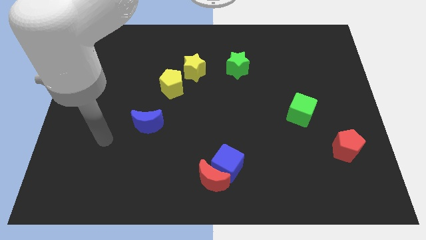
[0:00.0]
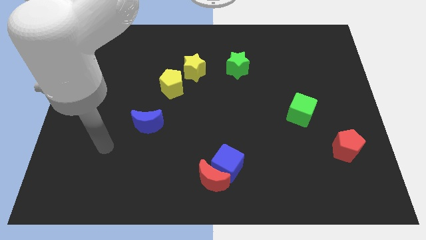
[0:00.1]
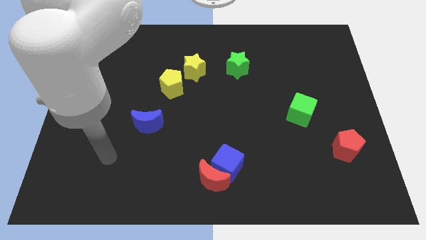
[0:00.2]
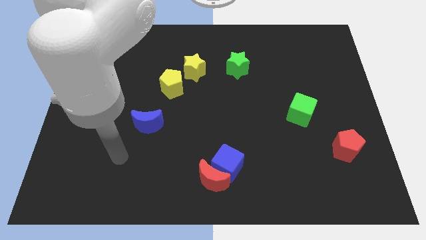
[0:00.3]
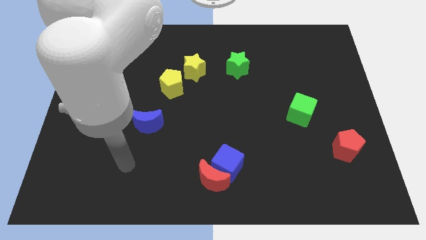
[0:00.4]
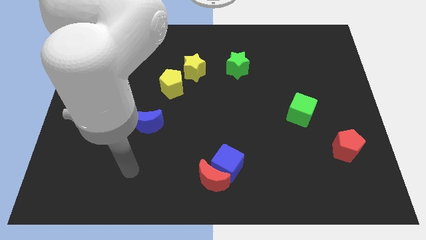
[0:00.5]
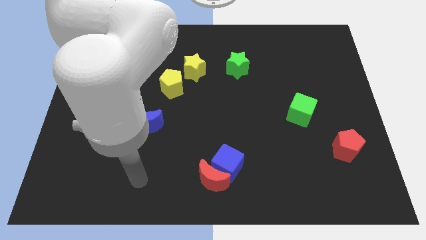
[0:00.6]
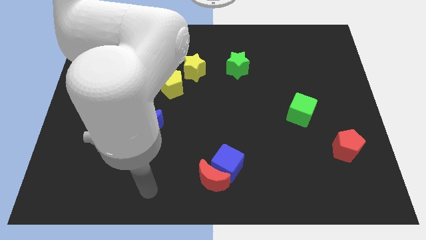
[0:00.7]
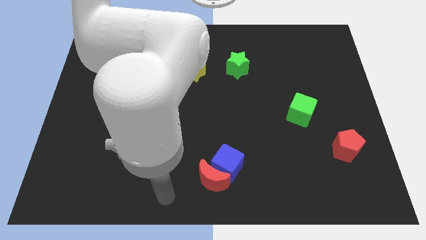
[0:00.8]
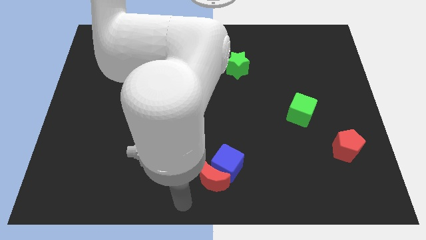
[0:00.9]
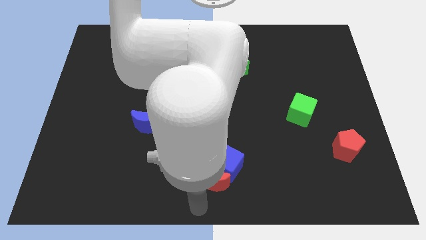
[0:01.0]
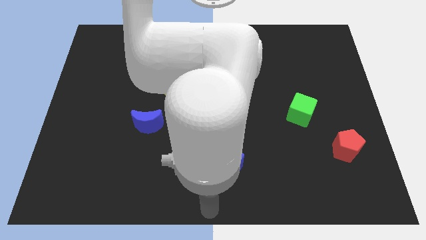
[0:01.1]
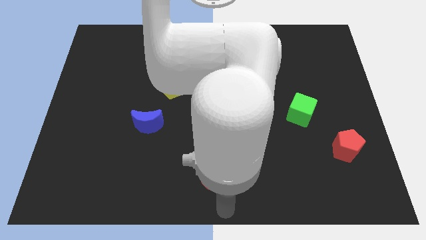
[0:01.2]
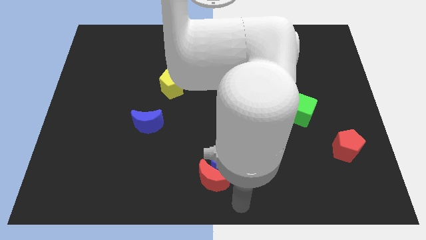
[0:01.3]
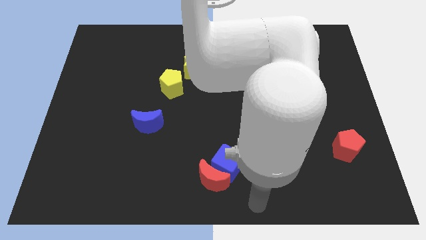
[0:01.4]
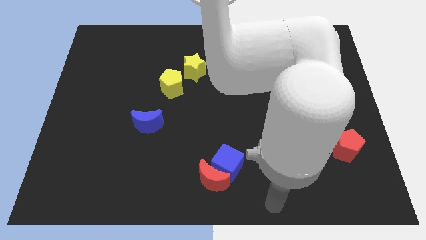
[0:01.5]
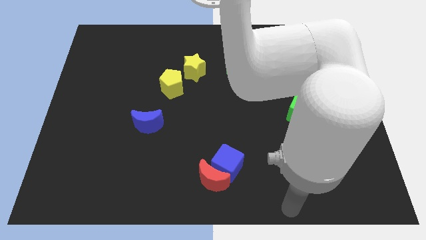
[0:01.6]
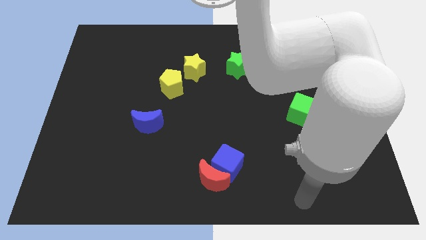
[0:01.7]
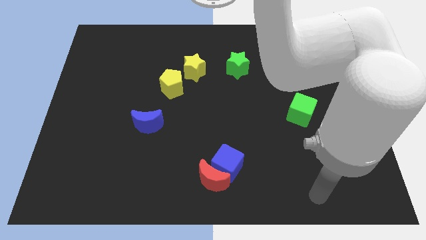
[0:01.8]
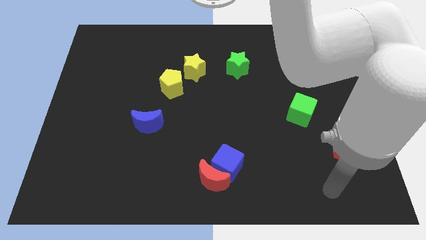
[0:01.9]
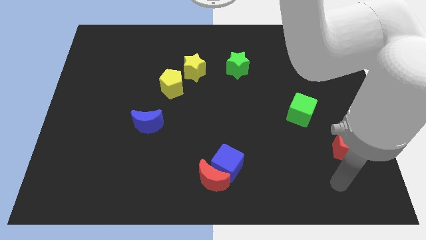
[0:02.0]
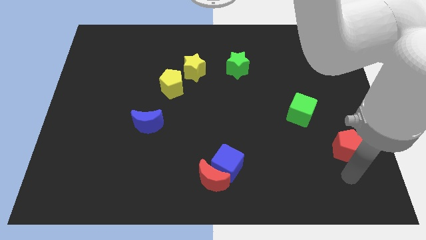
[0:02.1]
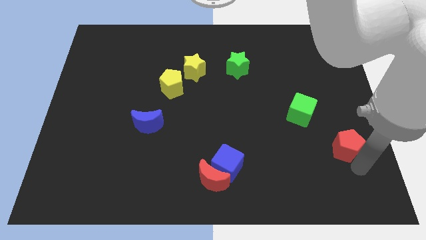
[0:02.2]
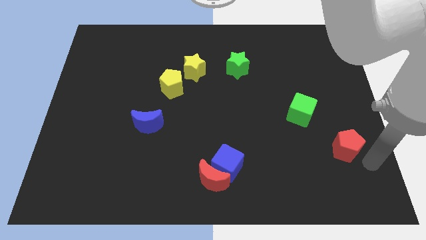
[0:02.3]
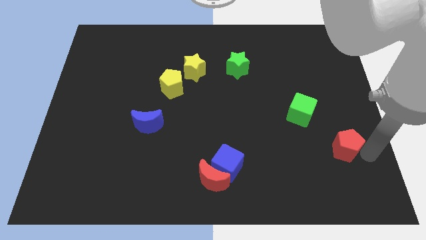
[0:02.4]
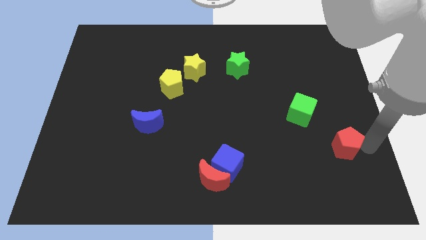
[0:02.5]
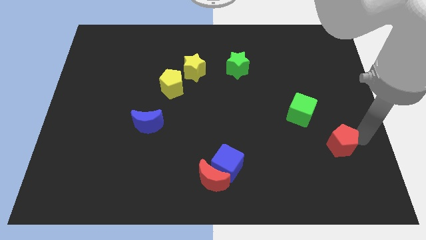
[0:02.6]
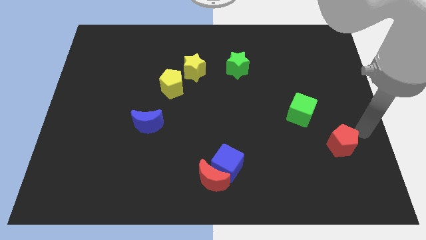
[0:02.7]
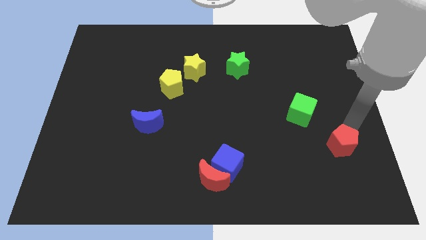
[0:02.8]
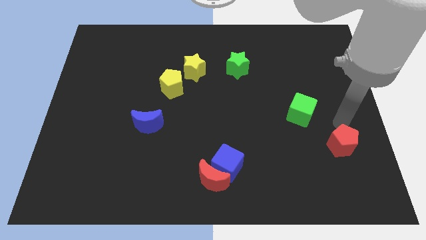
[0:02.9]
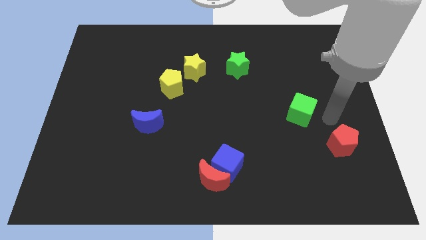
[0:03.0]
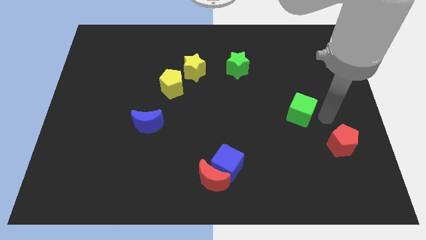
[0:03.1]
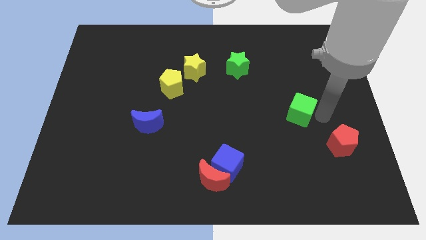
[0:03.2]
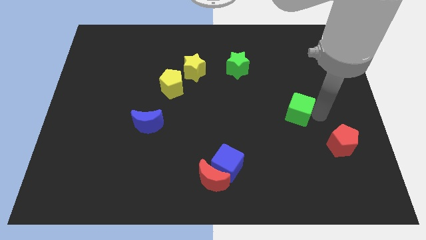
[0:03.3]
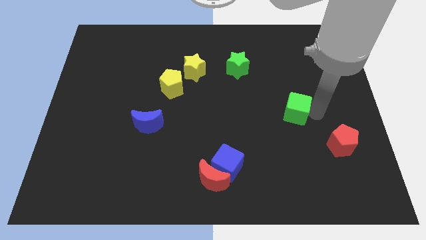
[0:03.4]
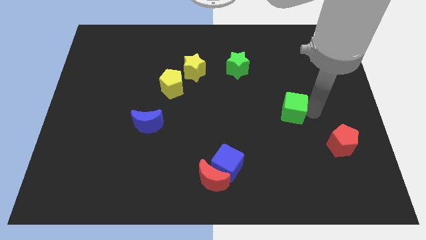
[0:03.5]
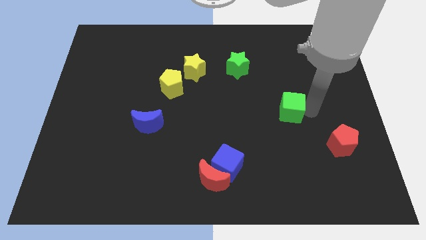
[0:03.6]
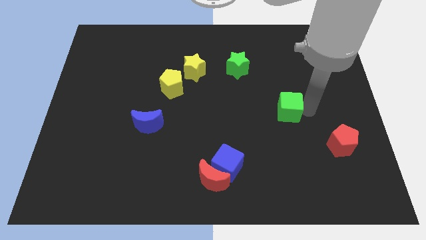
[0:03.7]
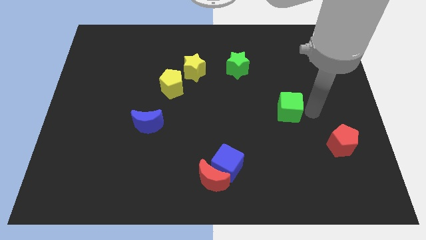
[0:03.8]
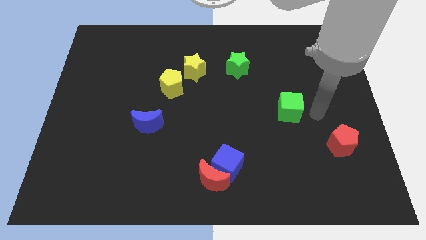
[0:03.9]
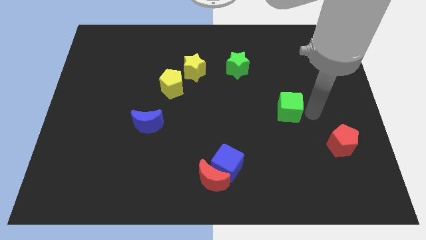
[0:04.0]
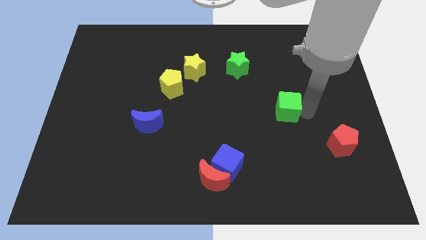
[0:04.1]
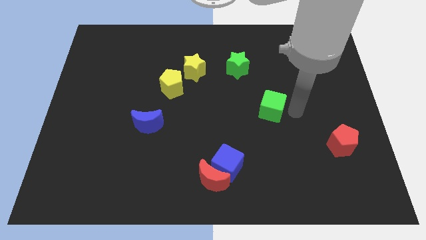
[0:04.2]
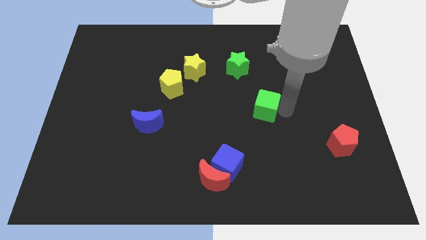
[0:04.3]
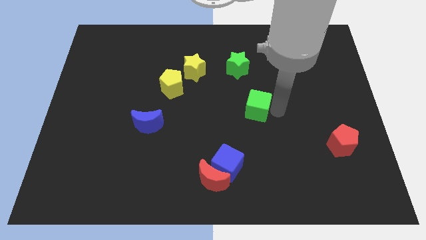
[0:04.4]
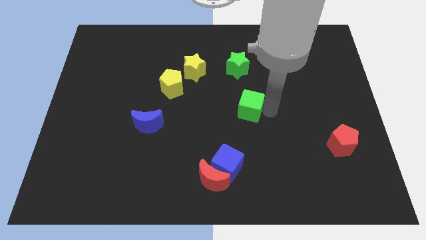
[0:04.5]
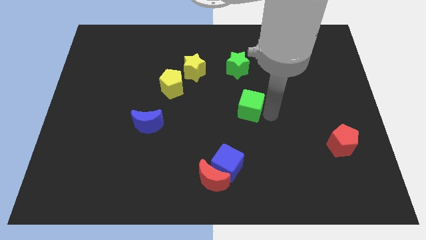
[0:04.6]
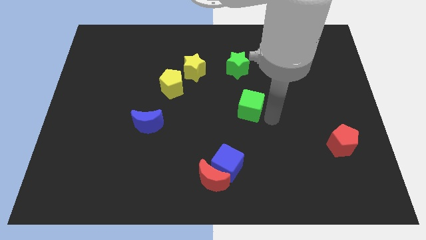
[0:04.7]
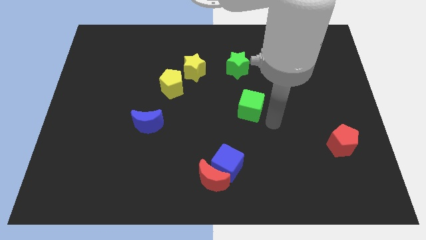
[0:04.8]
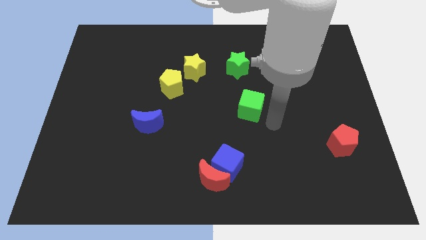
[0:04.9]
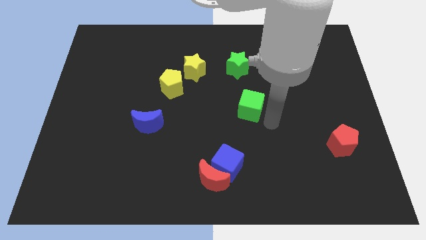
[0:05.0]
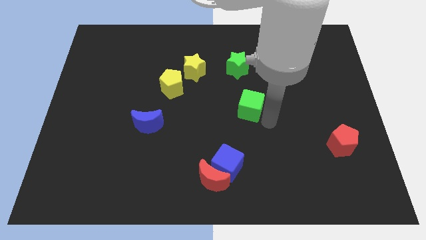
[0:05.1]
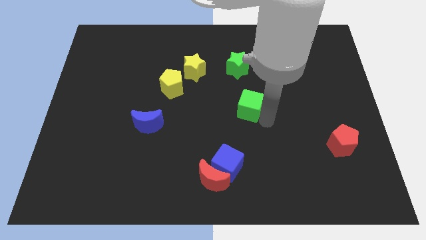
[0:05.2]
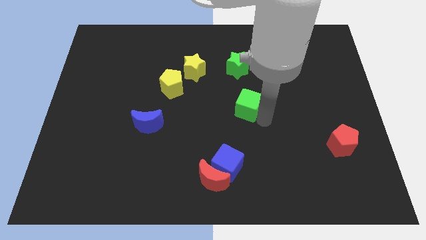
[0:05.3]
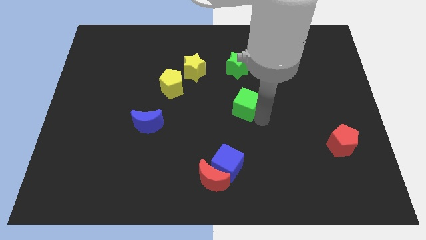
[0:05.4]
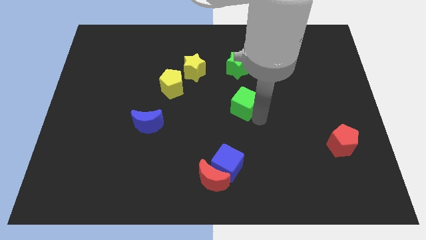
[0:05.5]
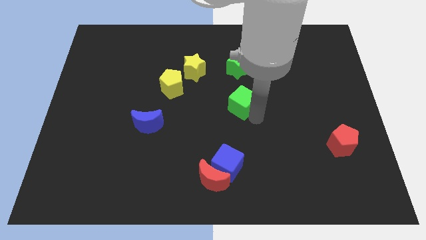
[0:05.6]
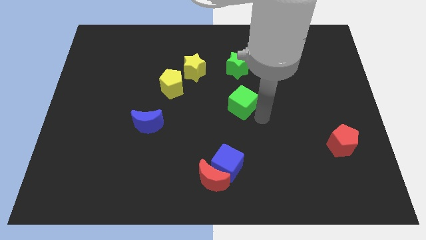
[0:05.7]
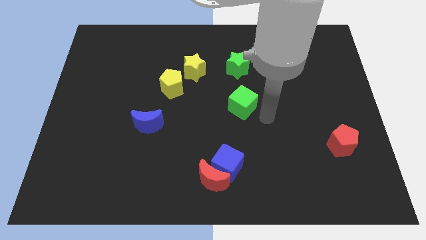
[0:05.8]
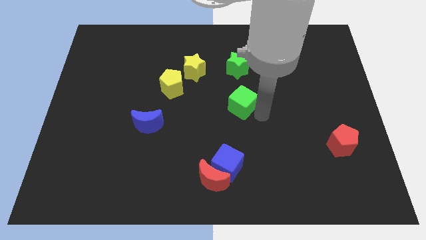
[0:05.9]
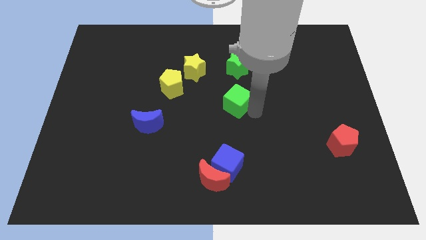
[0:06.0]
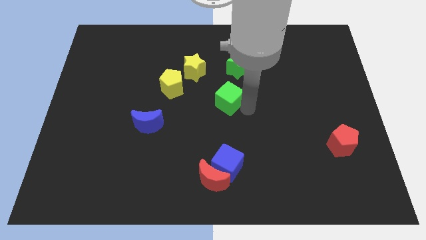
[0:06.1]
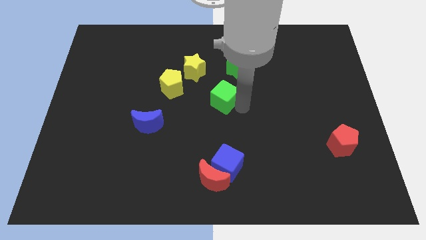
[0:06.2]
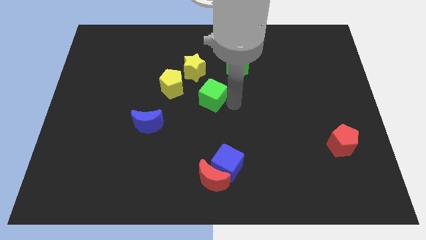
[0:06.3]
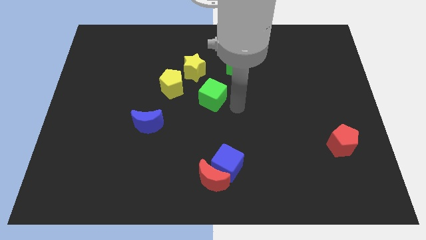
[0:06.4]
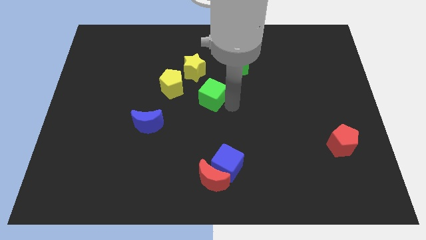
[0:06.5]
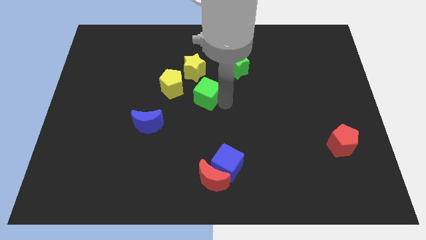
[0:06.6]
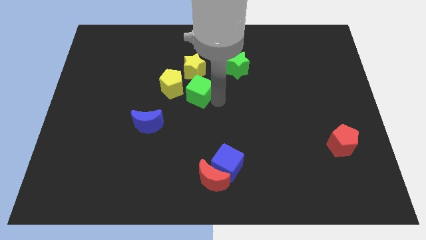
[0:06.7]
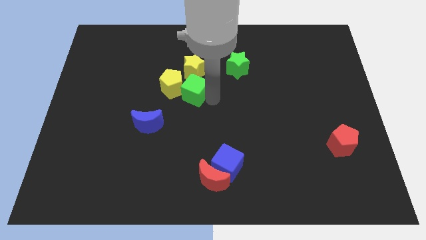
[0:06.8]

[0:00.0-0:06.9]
put the green cube to the yellow pentagon
